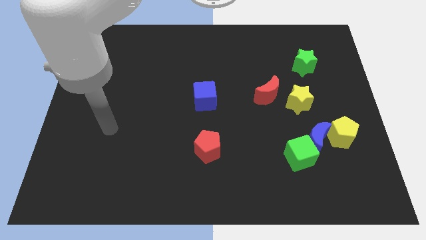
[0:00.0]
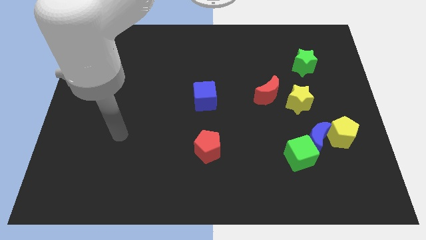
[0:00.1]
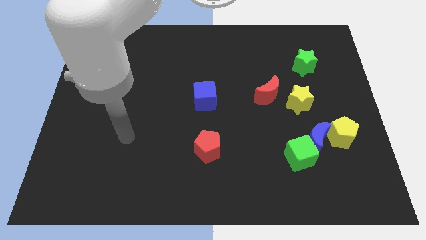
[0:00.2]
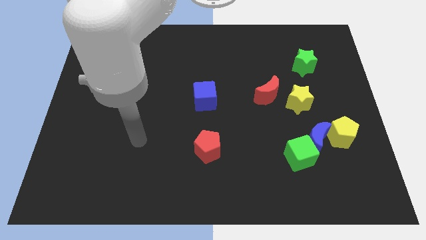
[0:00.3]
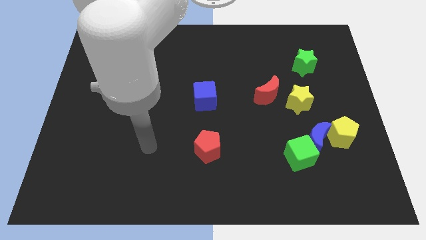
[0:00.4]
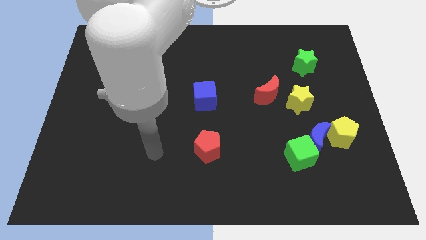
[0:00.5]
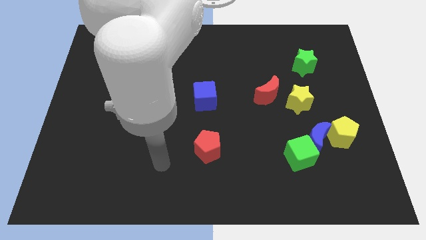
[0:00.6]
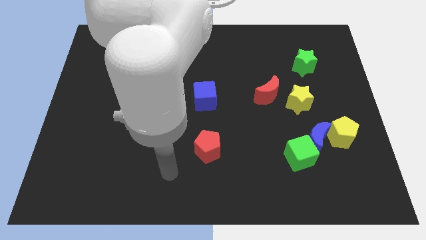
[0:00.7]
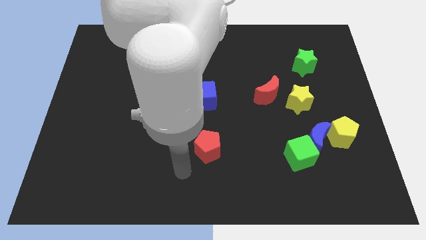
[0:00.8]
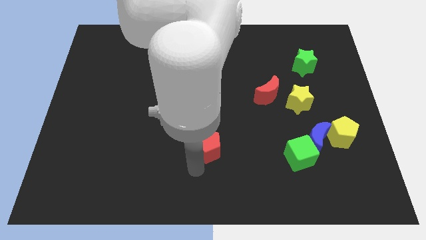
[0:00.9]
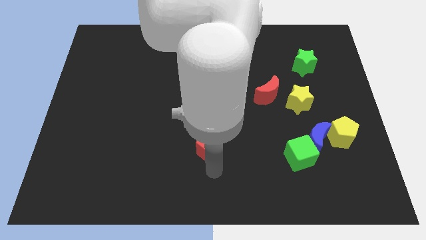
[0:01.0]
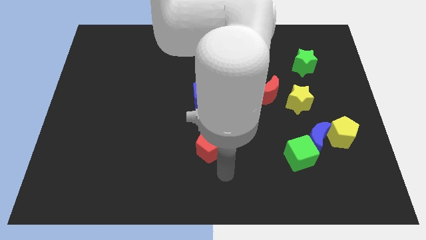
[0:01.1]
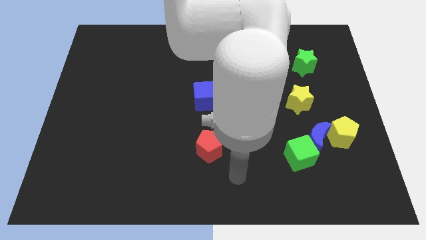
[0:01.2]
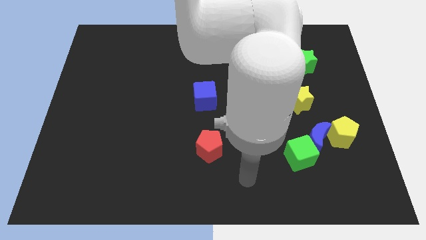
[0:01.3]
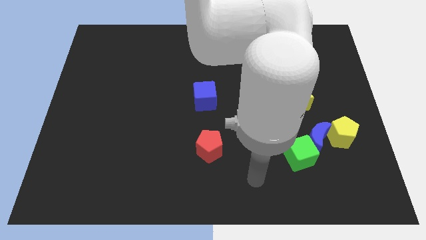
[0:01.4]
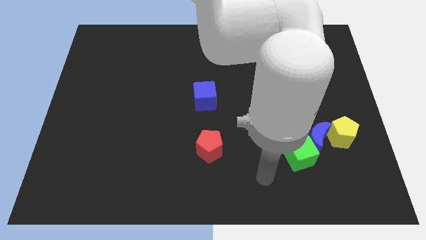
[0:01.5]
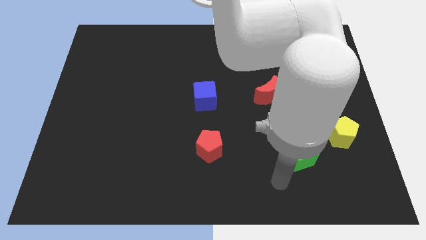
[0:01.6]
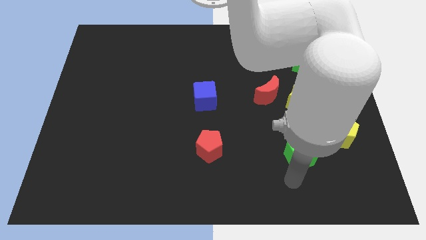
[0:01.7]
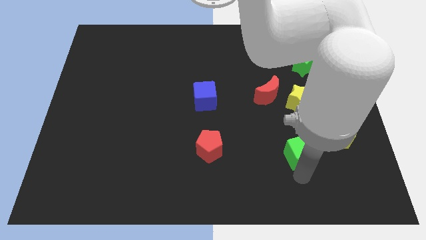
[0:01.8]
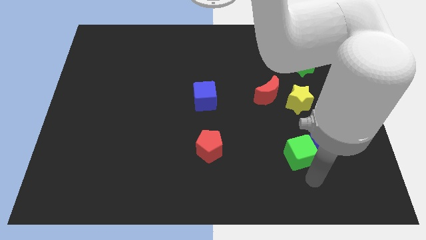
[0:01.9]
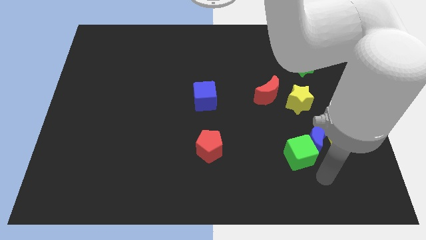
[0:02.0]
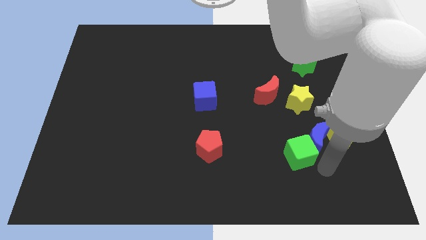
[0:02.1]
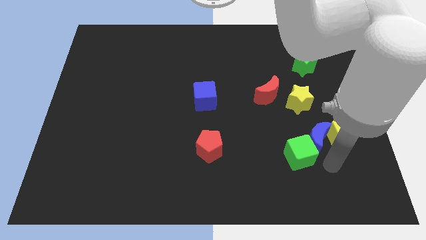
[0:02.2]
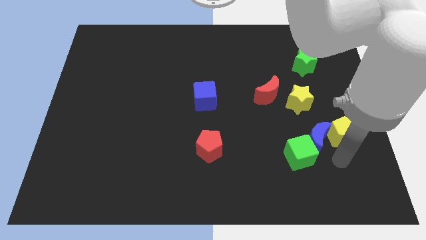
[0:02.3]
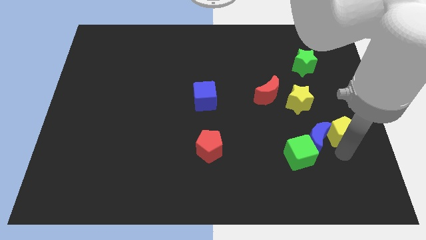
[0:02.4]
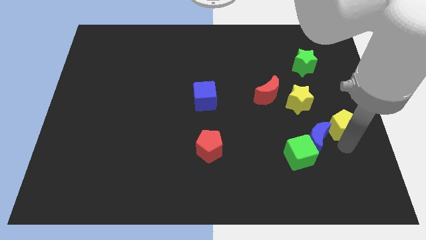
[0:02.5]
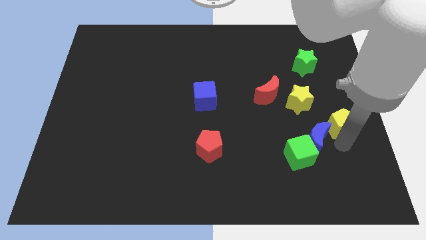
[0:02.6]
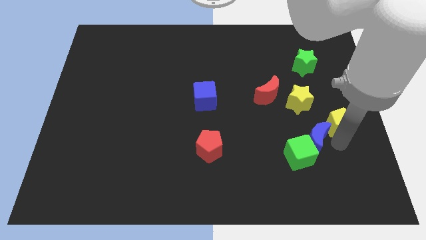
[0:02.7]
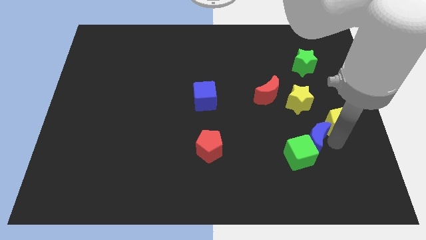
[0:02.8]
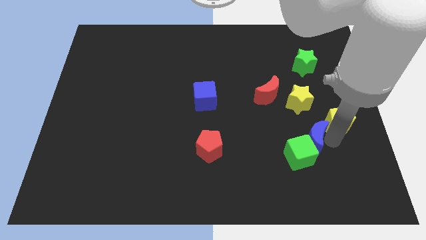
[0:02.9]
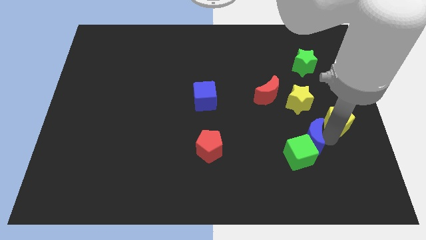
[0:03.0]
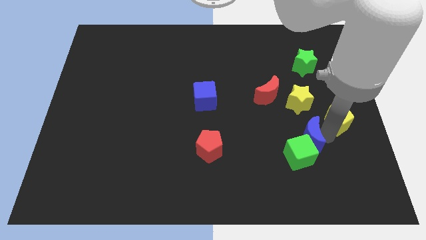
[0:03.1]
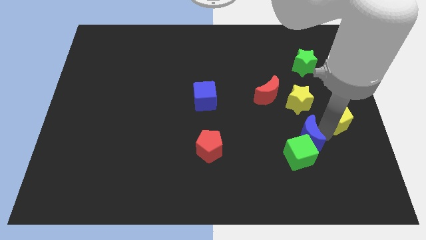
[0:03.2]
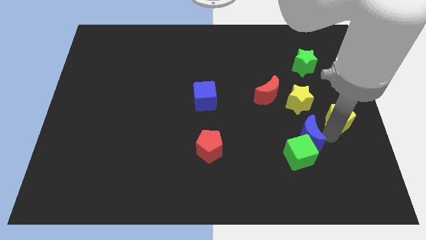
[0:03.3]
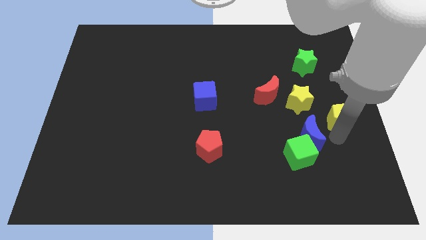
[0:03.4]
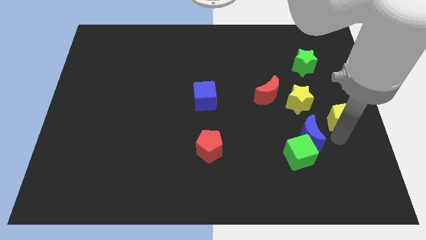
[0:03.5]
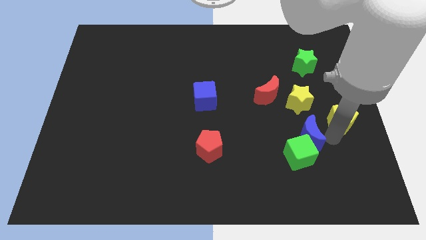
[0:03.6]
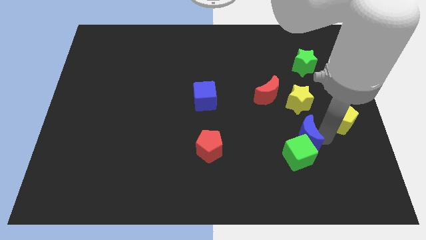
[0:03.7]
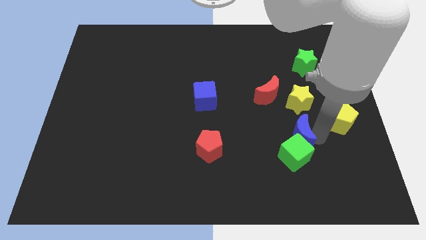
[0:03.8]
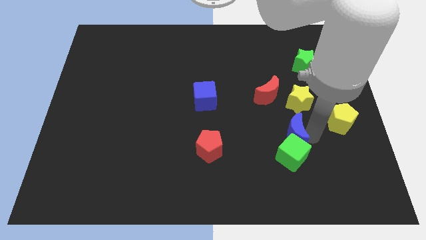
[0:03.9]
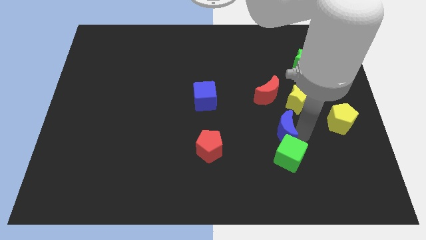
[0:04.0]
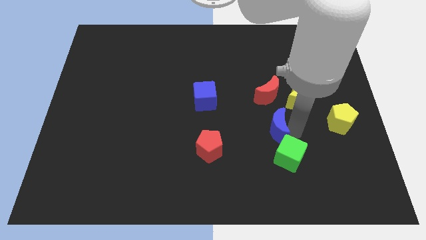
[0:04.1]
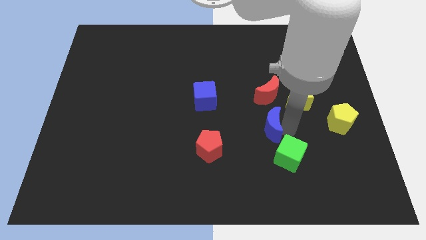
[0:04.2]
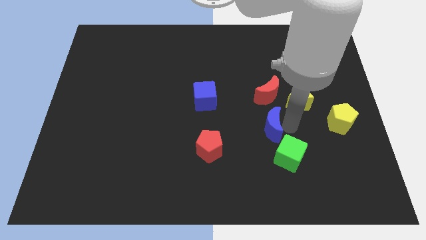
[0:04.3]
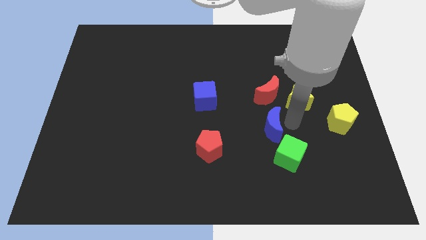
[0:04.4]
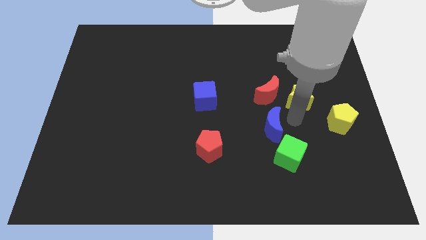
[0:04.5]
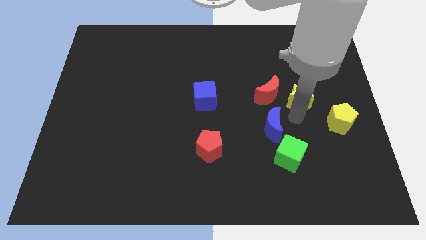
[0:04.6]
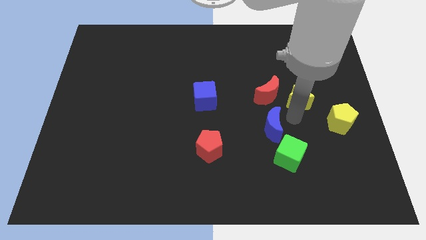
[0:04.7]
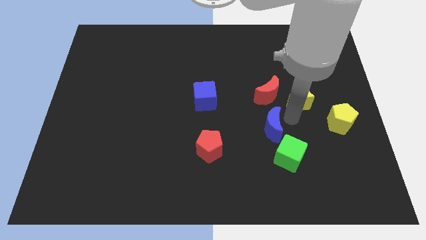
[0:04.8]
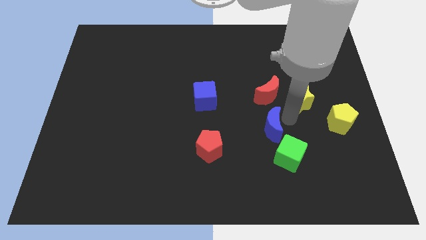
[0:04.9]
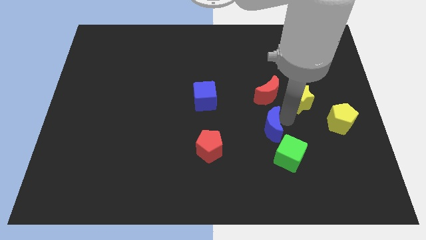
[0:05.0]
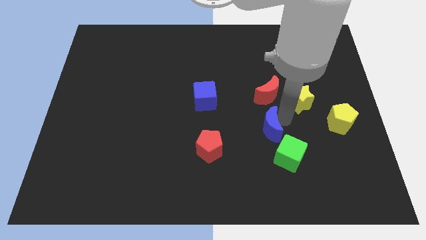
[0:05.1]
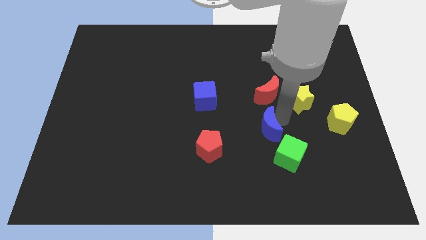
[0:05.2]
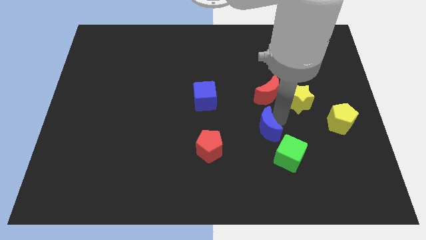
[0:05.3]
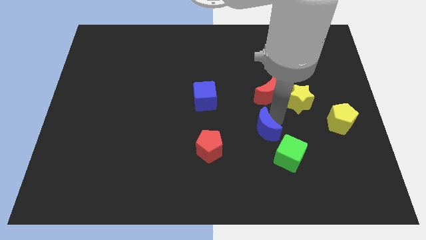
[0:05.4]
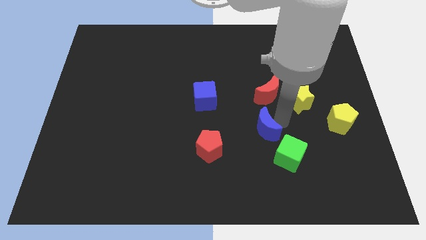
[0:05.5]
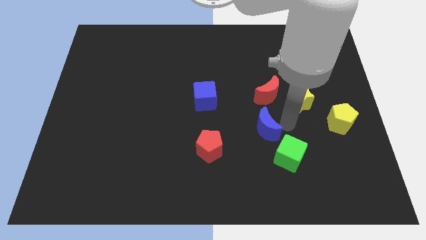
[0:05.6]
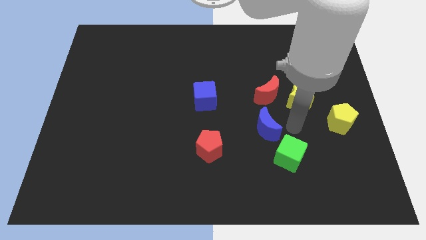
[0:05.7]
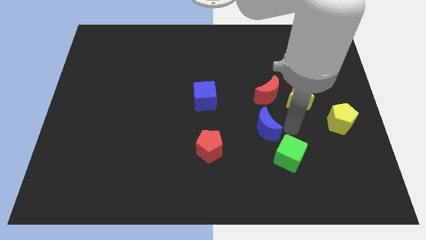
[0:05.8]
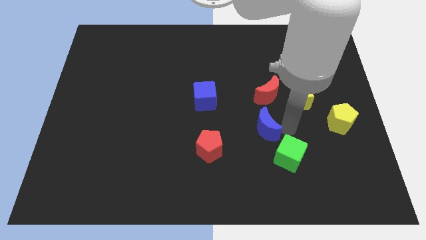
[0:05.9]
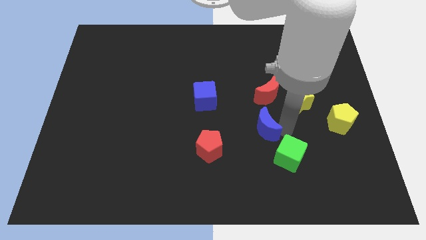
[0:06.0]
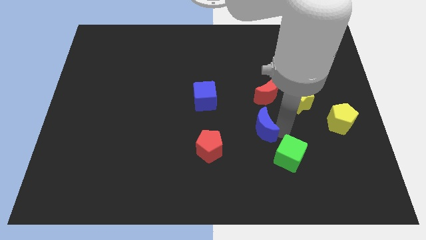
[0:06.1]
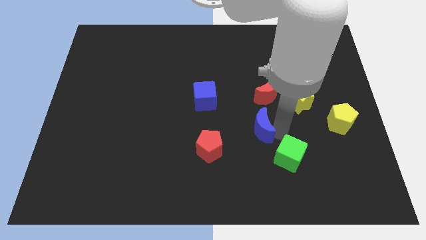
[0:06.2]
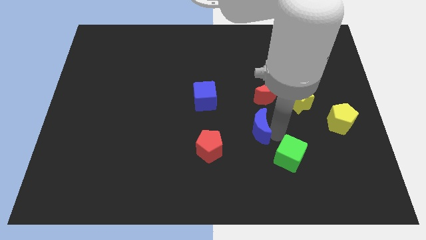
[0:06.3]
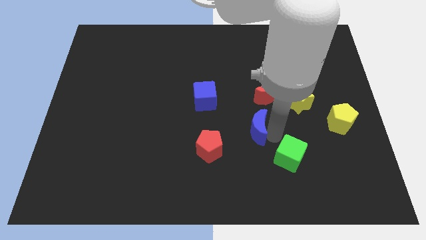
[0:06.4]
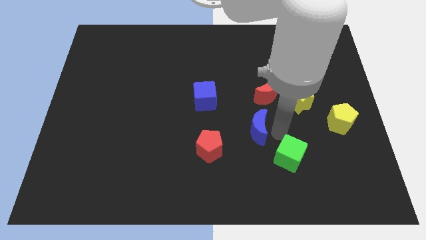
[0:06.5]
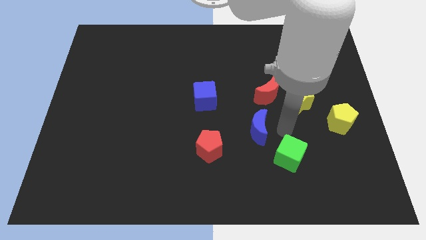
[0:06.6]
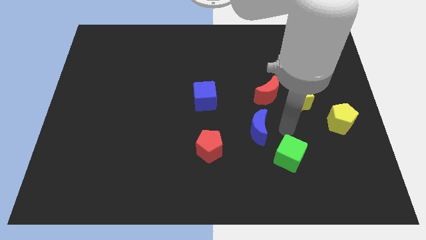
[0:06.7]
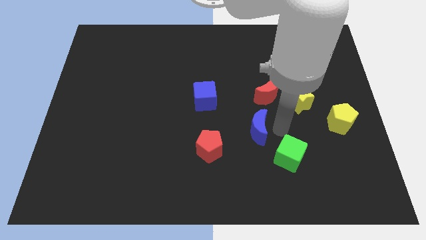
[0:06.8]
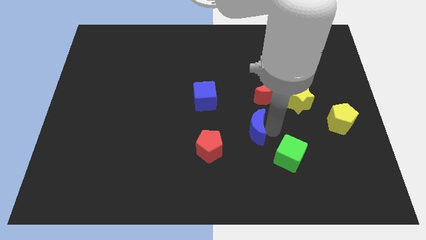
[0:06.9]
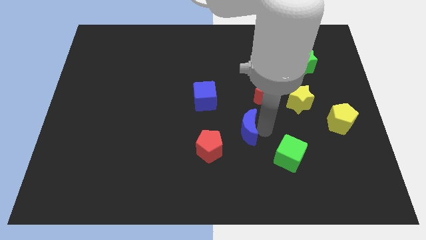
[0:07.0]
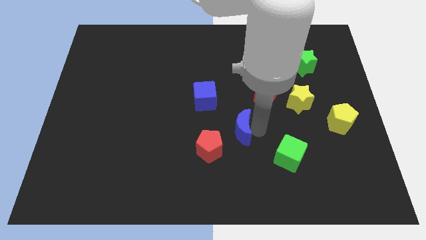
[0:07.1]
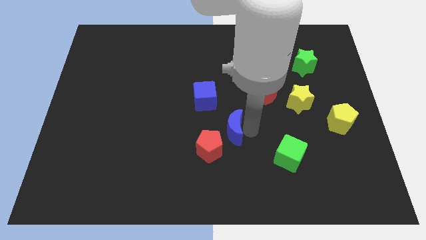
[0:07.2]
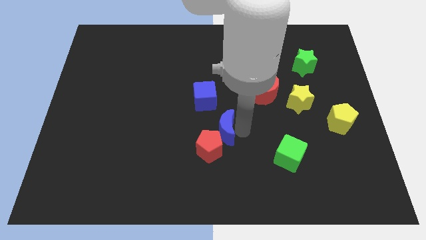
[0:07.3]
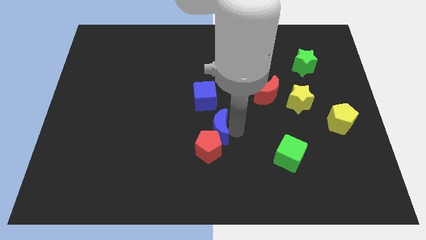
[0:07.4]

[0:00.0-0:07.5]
slide the blue moon to the left
